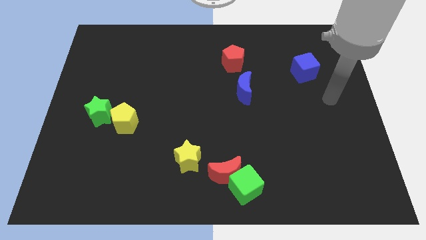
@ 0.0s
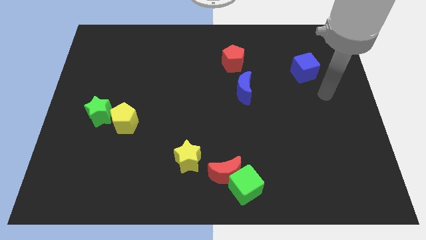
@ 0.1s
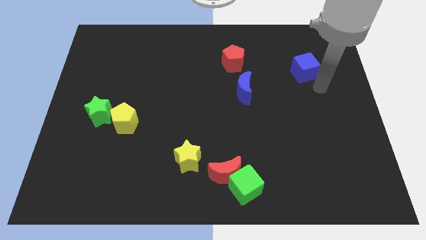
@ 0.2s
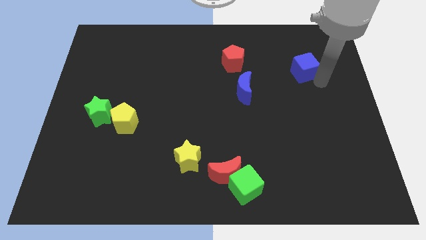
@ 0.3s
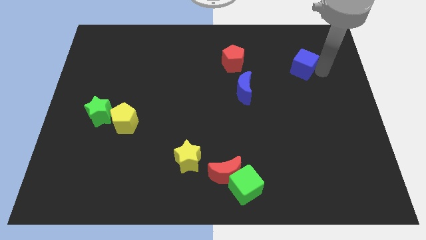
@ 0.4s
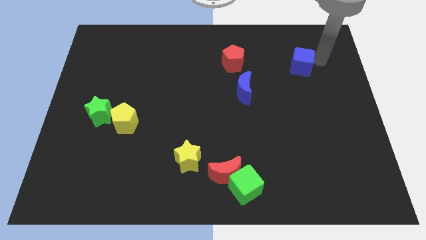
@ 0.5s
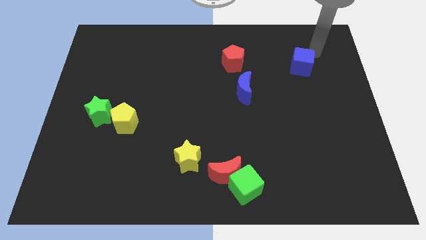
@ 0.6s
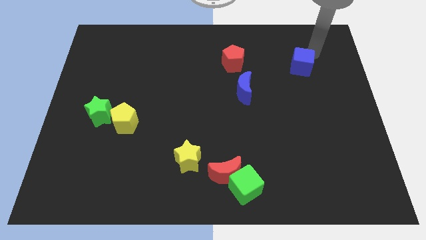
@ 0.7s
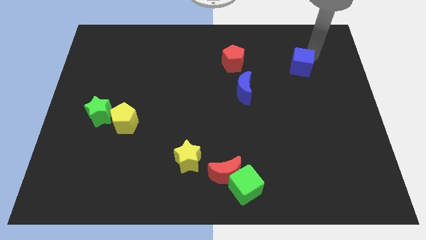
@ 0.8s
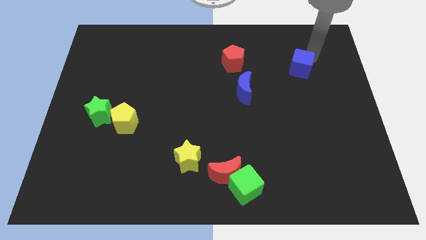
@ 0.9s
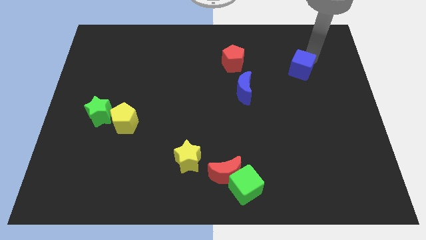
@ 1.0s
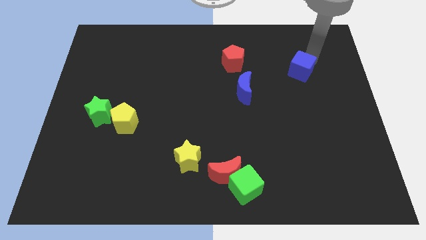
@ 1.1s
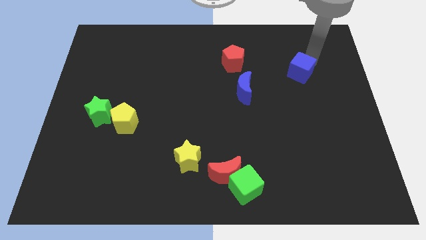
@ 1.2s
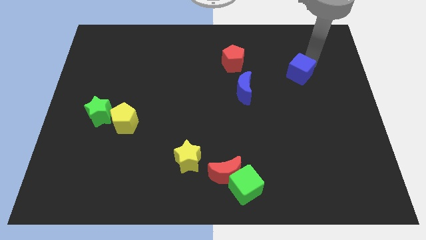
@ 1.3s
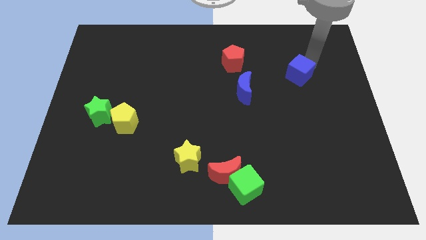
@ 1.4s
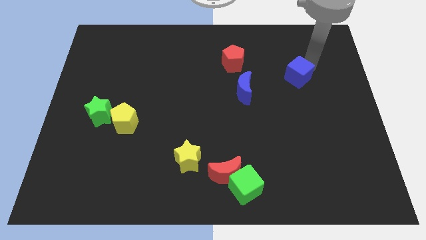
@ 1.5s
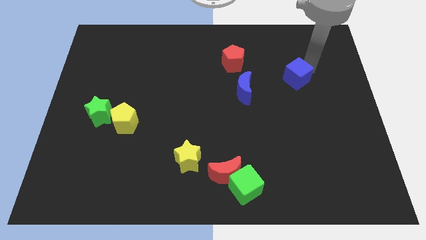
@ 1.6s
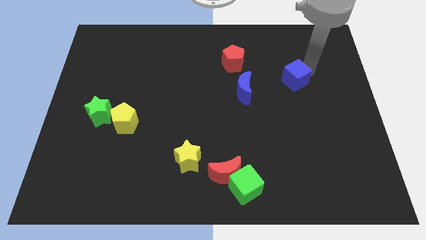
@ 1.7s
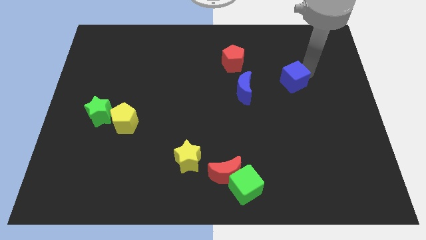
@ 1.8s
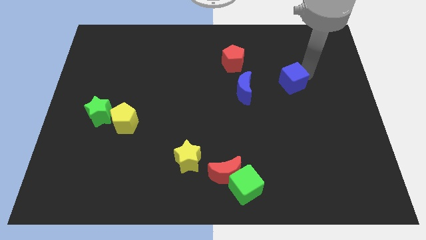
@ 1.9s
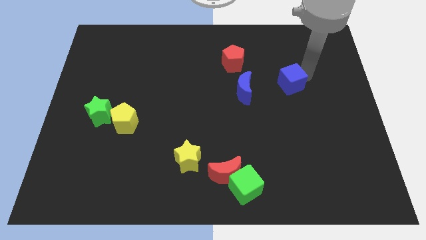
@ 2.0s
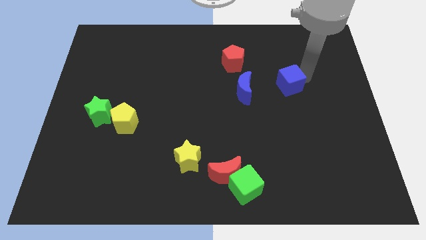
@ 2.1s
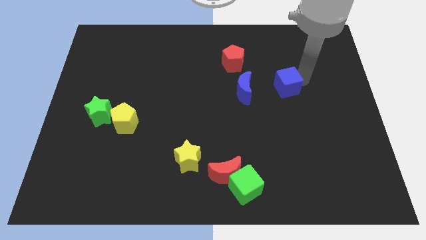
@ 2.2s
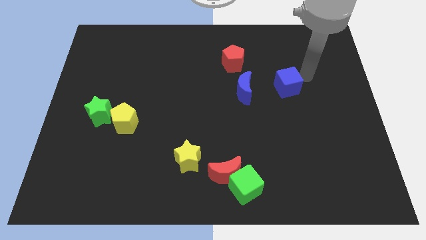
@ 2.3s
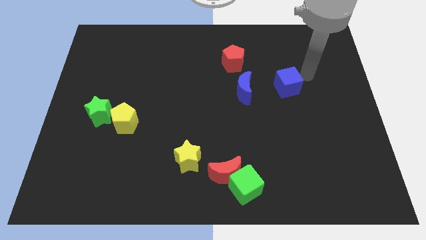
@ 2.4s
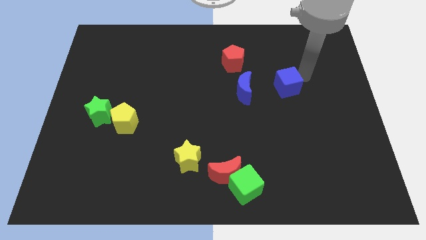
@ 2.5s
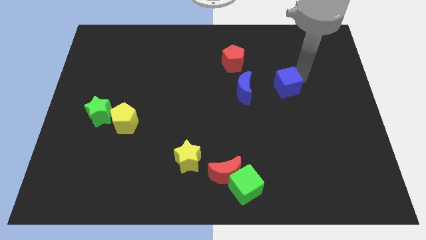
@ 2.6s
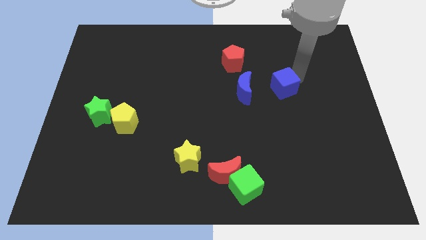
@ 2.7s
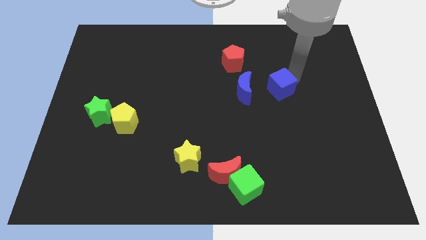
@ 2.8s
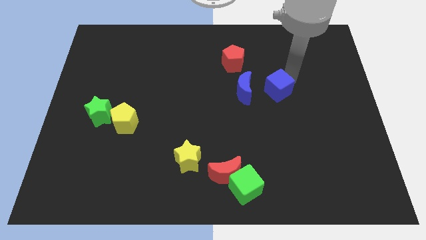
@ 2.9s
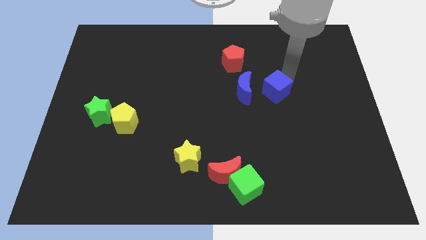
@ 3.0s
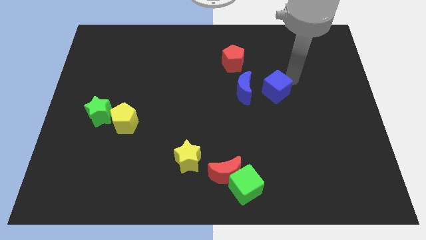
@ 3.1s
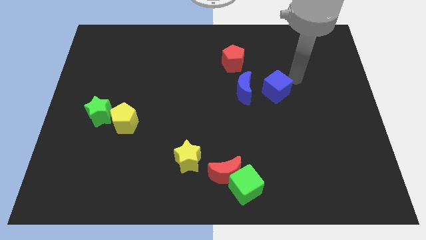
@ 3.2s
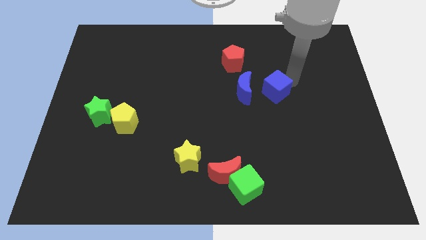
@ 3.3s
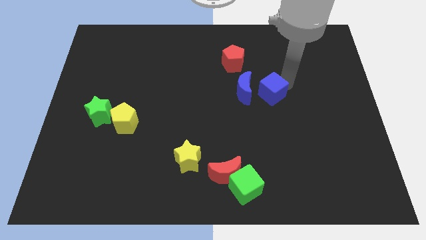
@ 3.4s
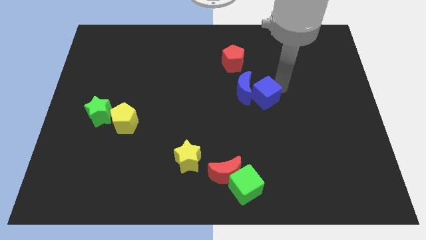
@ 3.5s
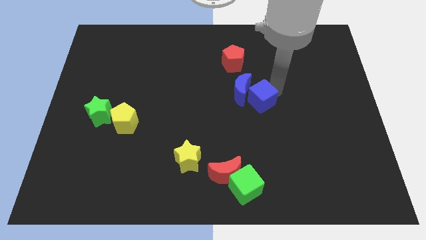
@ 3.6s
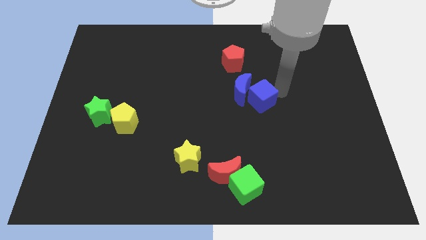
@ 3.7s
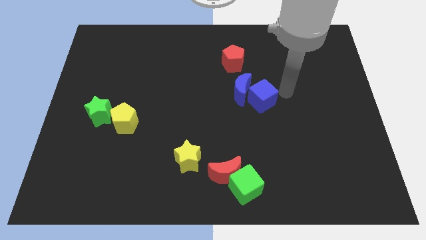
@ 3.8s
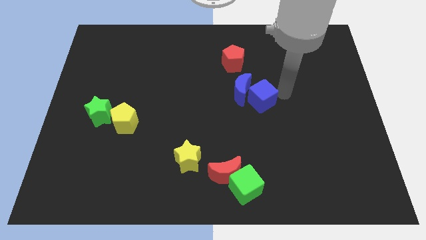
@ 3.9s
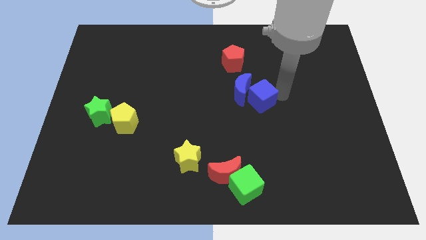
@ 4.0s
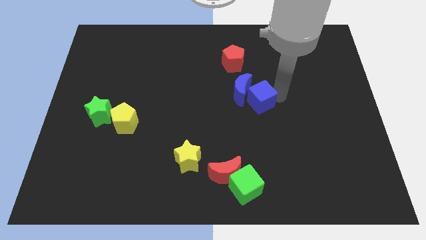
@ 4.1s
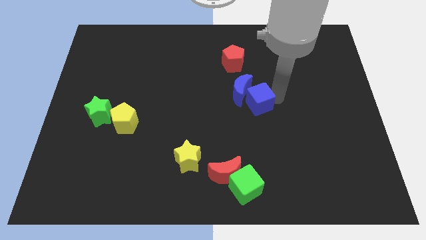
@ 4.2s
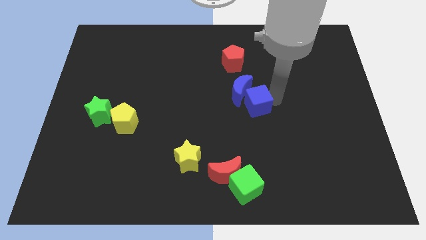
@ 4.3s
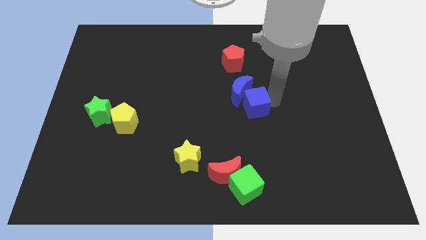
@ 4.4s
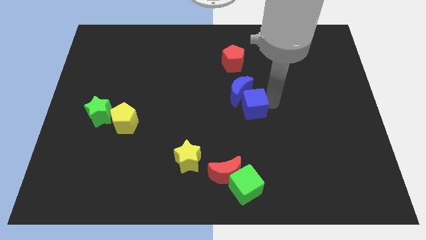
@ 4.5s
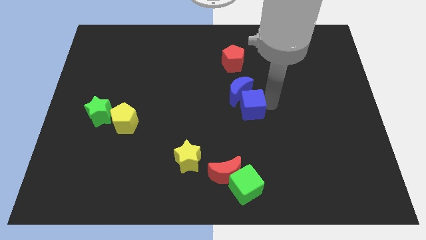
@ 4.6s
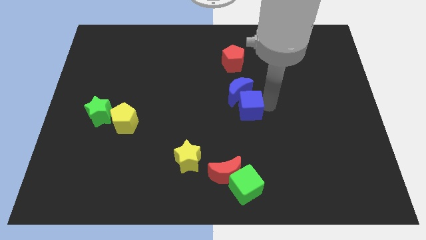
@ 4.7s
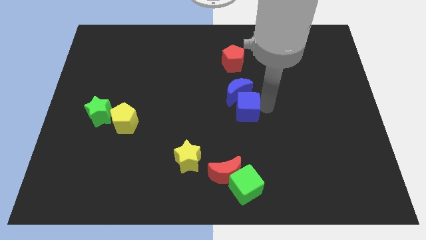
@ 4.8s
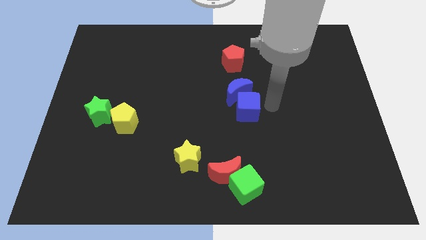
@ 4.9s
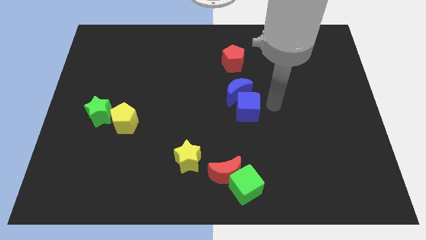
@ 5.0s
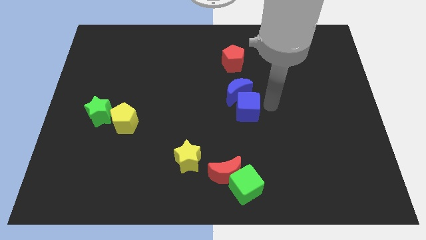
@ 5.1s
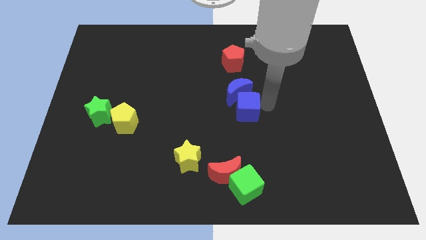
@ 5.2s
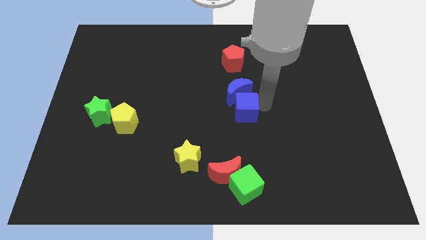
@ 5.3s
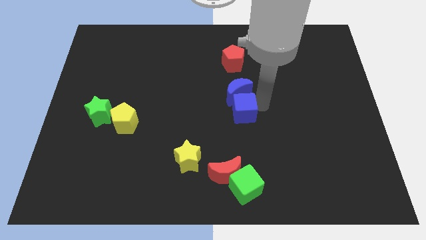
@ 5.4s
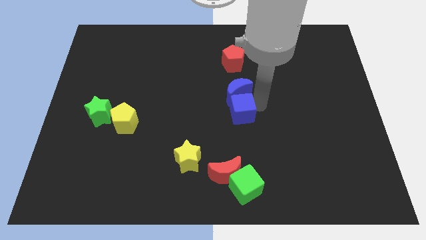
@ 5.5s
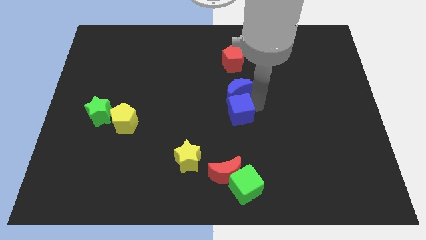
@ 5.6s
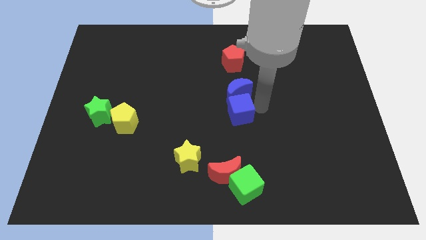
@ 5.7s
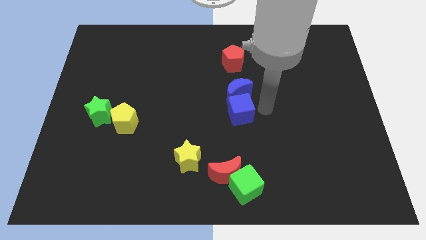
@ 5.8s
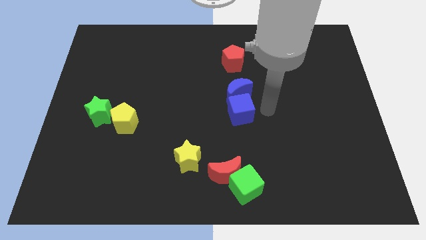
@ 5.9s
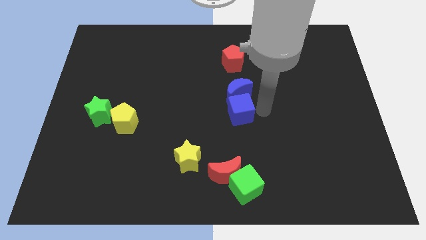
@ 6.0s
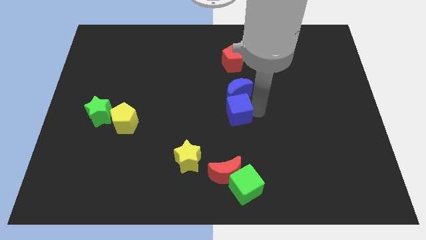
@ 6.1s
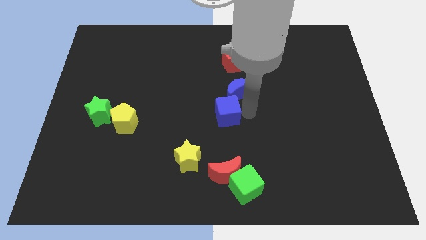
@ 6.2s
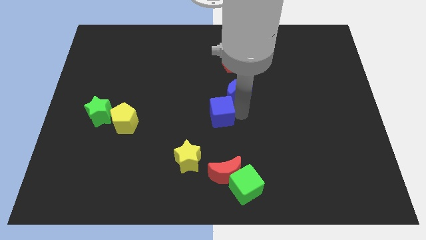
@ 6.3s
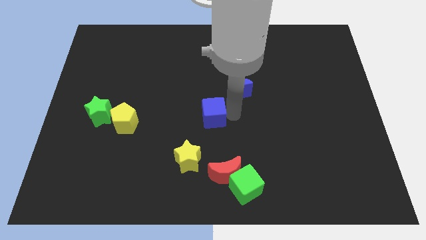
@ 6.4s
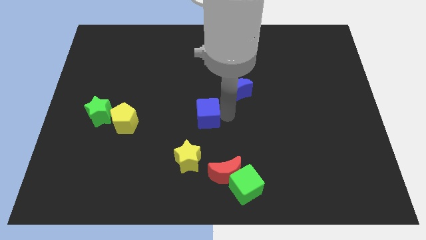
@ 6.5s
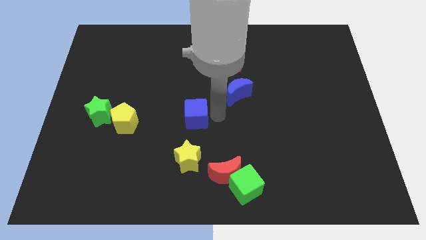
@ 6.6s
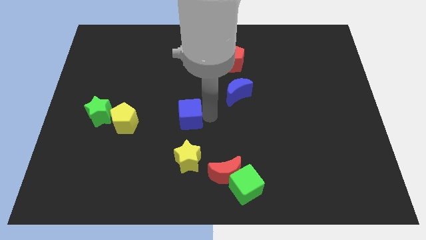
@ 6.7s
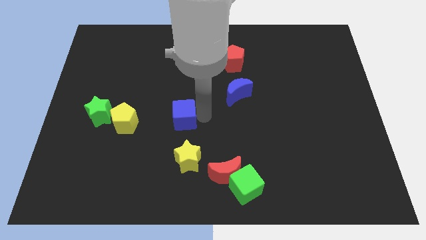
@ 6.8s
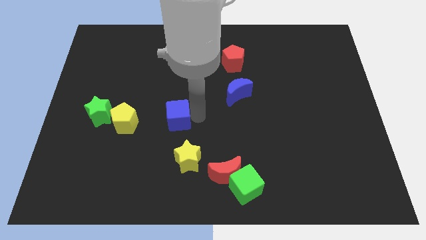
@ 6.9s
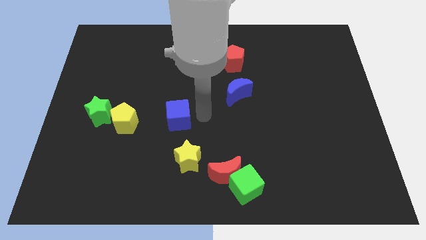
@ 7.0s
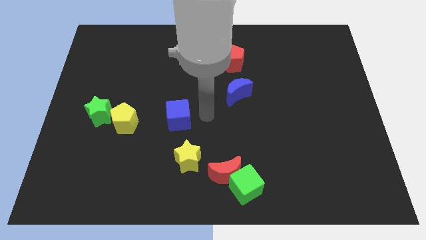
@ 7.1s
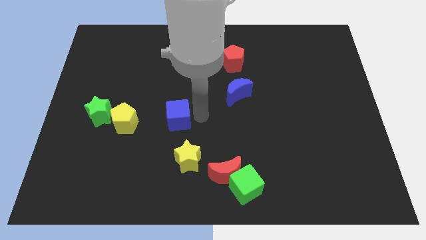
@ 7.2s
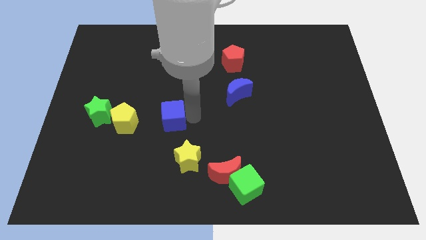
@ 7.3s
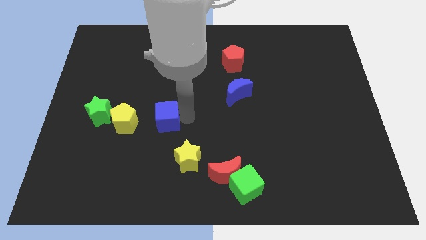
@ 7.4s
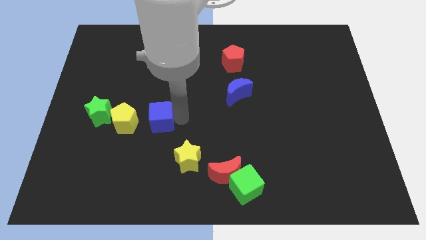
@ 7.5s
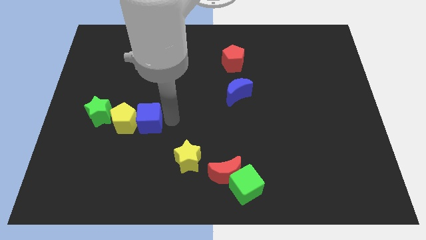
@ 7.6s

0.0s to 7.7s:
put the blue cube close to the yellow pentagon

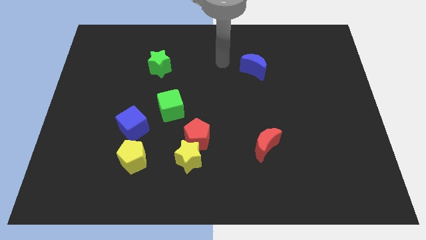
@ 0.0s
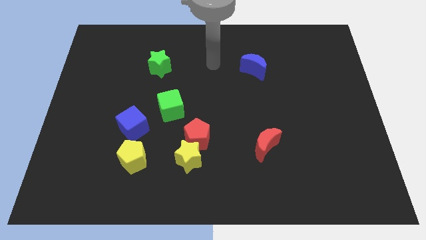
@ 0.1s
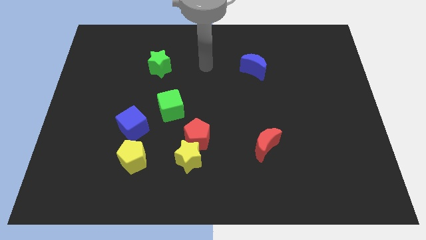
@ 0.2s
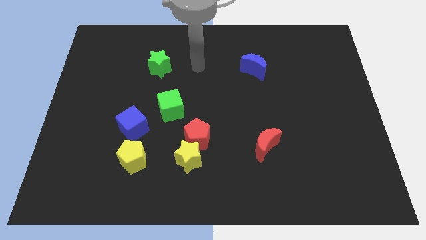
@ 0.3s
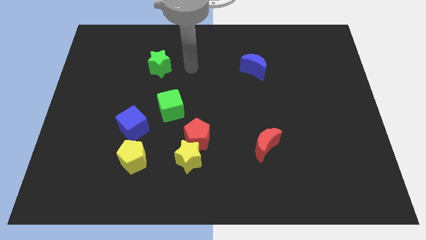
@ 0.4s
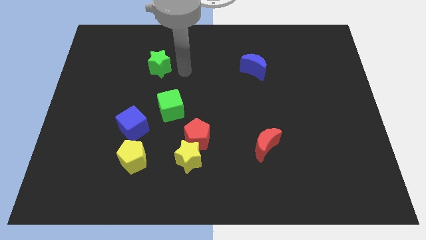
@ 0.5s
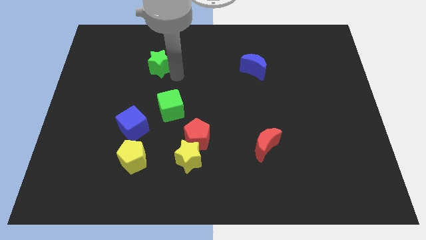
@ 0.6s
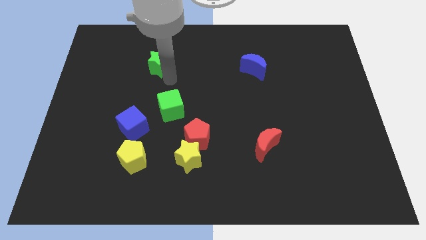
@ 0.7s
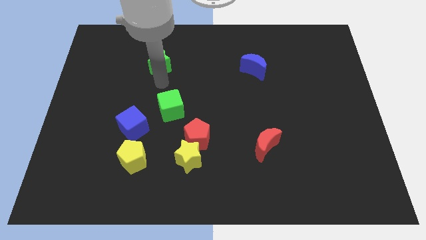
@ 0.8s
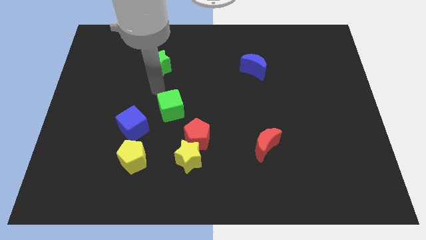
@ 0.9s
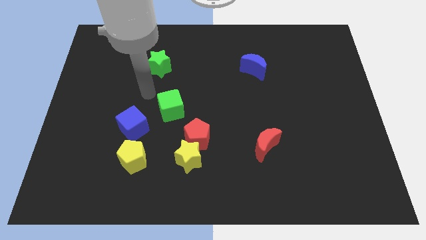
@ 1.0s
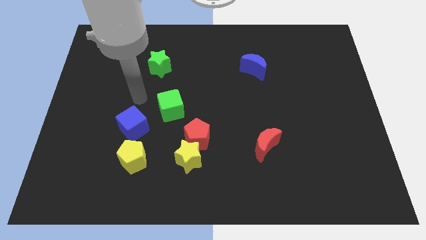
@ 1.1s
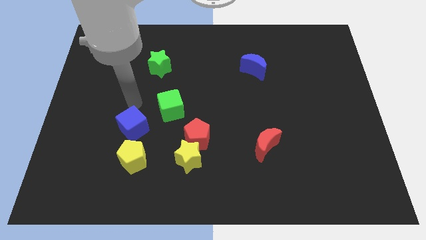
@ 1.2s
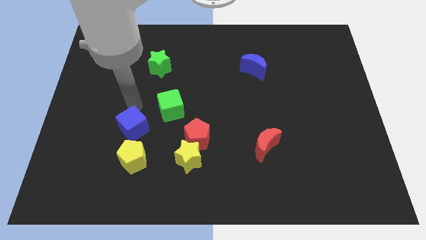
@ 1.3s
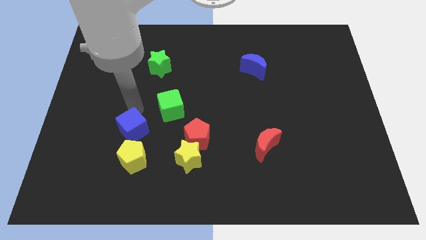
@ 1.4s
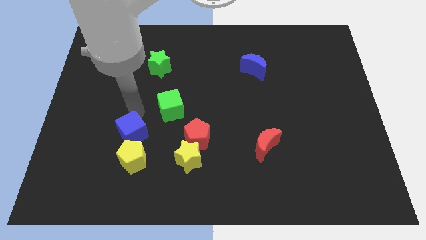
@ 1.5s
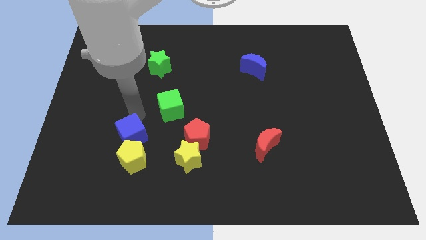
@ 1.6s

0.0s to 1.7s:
slide the blue cube next to the yellow pentagon
